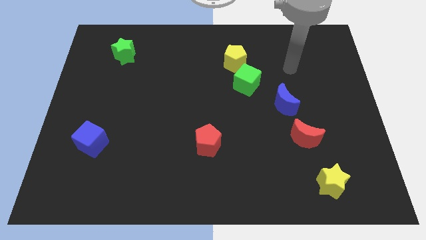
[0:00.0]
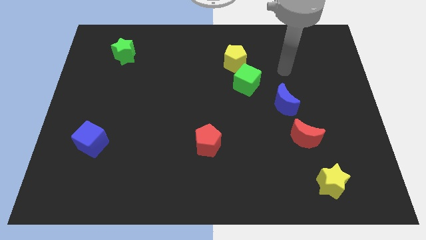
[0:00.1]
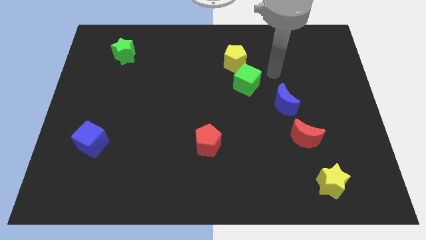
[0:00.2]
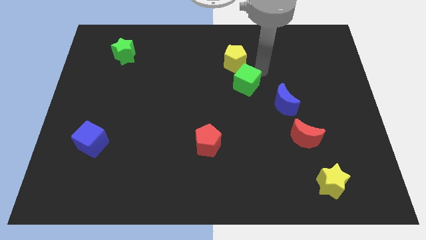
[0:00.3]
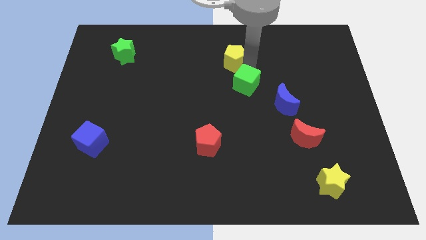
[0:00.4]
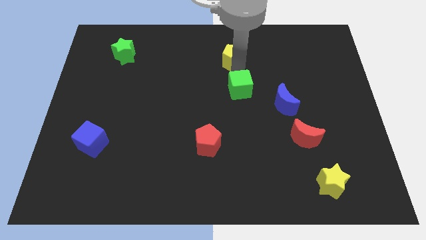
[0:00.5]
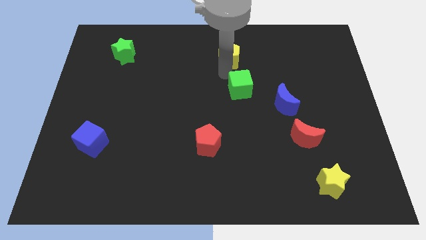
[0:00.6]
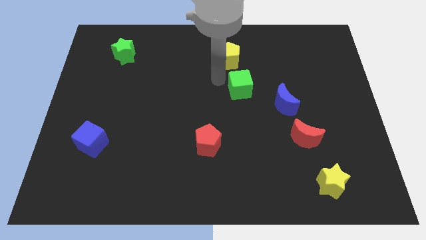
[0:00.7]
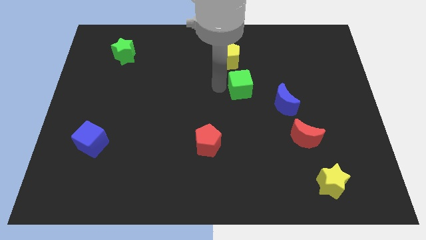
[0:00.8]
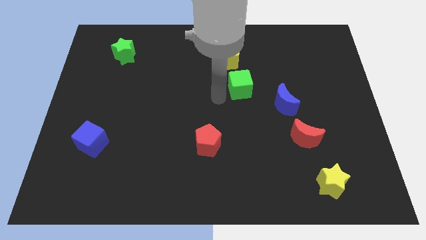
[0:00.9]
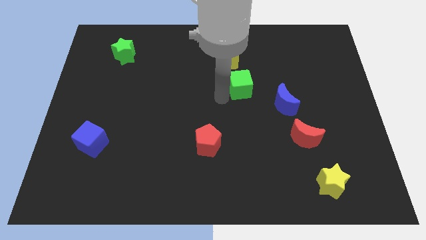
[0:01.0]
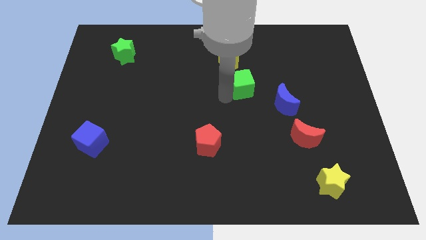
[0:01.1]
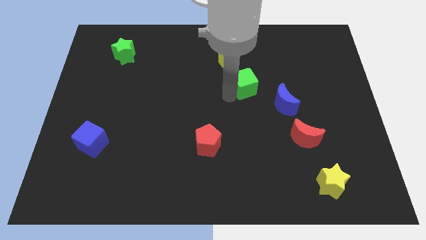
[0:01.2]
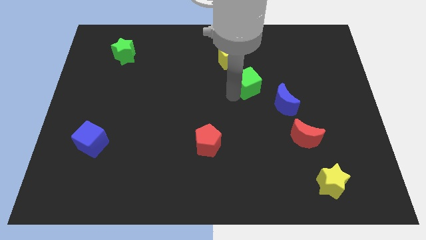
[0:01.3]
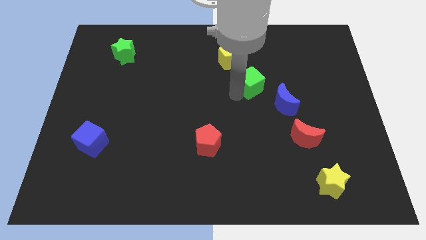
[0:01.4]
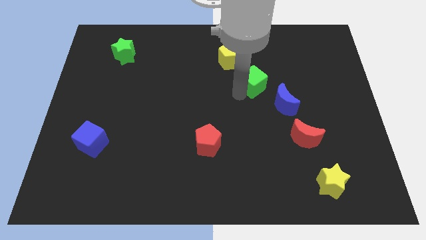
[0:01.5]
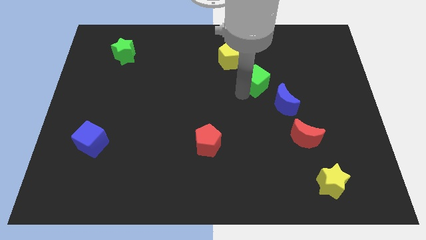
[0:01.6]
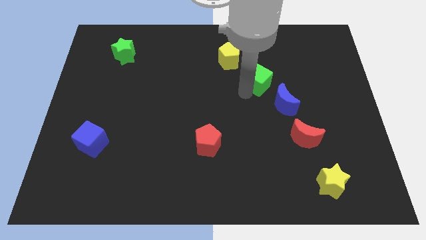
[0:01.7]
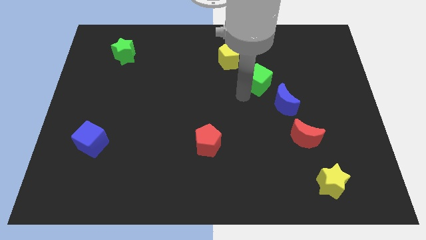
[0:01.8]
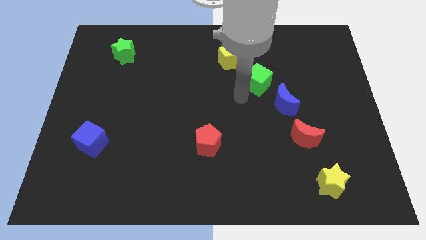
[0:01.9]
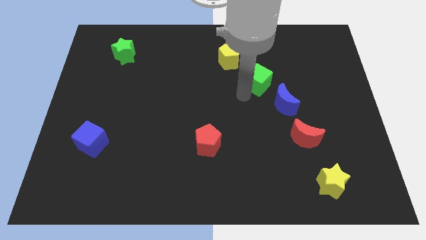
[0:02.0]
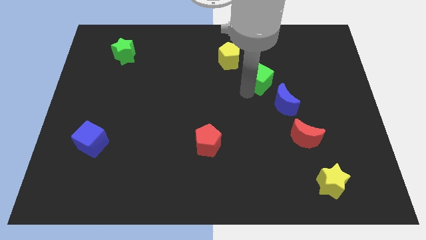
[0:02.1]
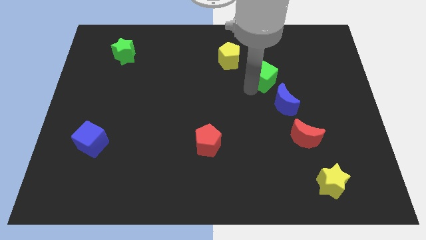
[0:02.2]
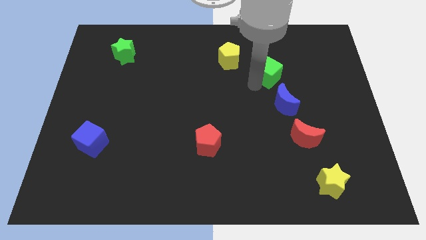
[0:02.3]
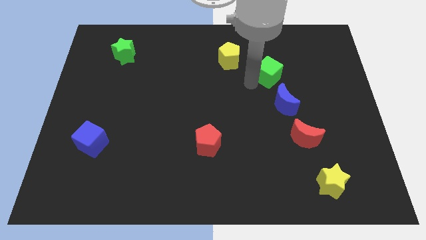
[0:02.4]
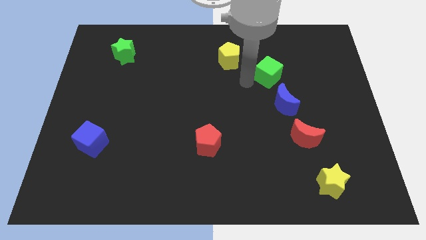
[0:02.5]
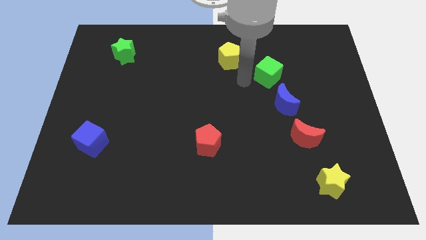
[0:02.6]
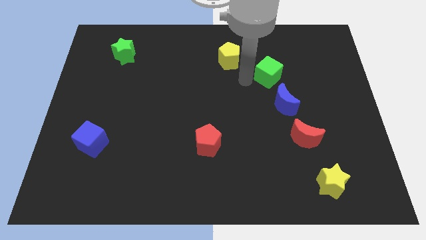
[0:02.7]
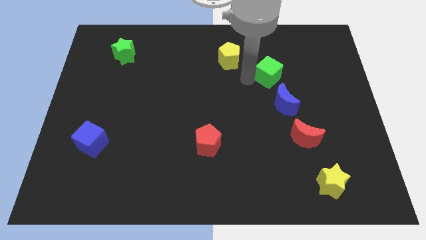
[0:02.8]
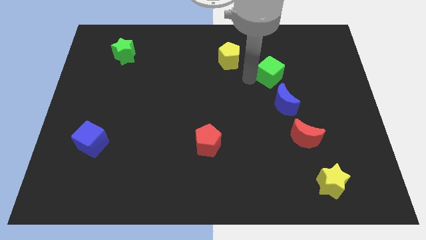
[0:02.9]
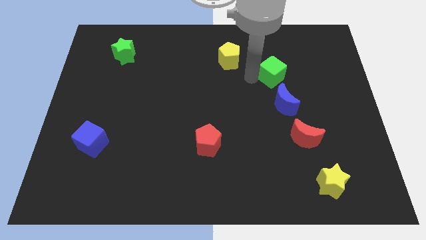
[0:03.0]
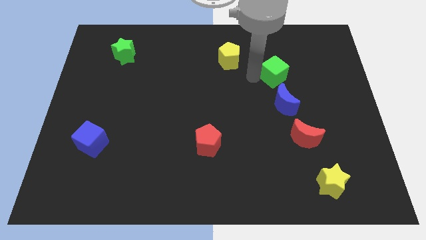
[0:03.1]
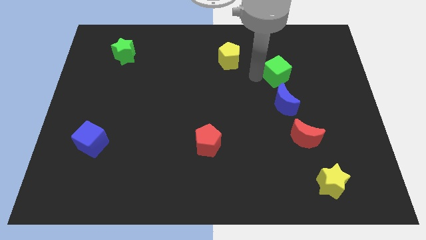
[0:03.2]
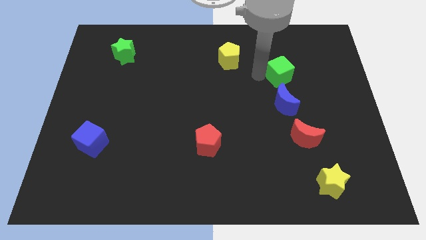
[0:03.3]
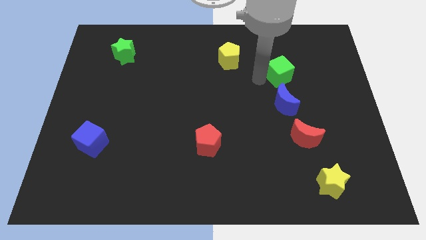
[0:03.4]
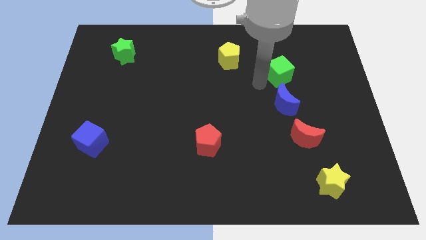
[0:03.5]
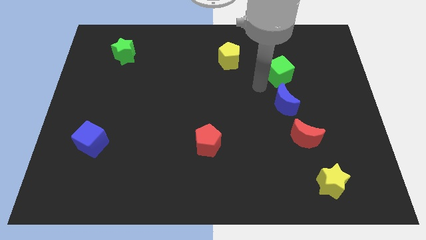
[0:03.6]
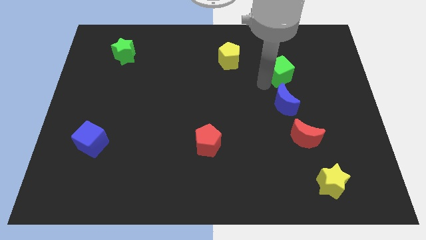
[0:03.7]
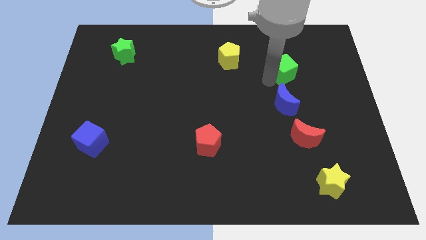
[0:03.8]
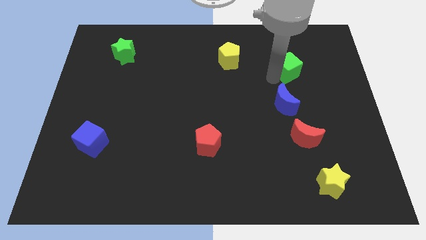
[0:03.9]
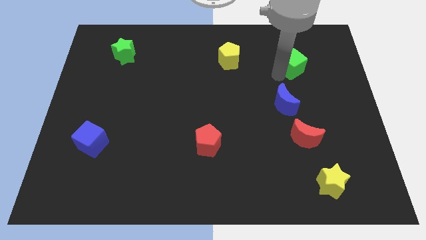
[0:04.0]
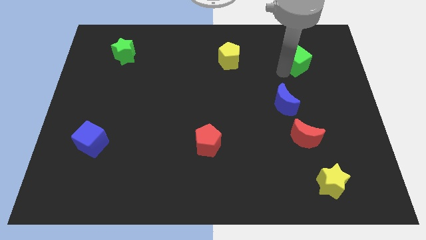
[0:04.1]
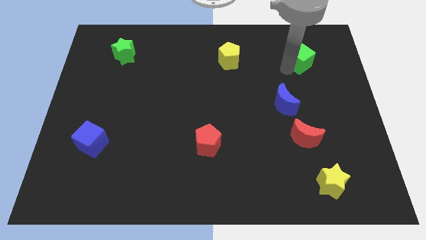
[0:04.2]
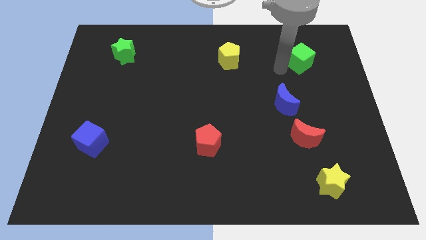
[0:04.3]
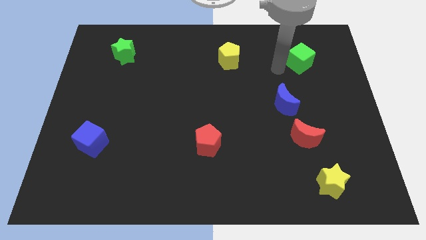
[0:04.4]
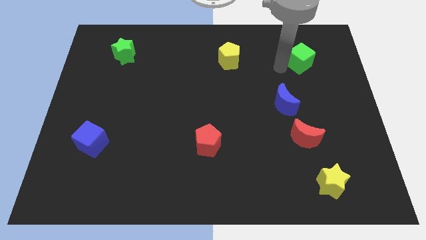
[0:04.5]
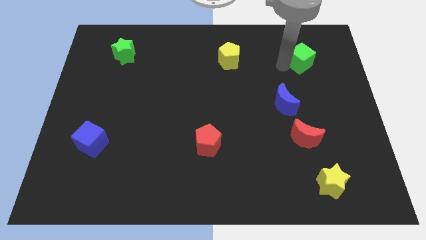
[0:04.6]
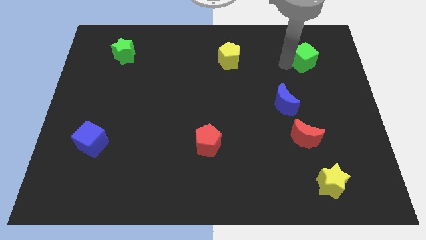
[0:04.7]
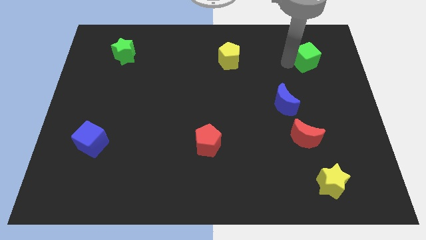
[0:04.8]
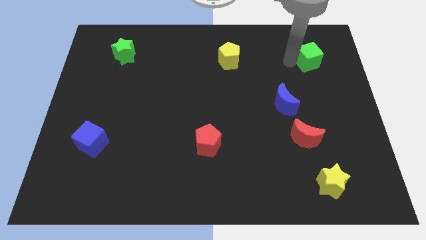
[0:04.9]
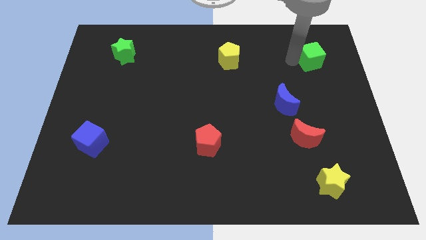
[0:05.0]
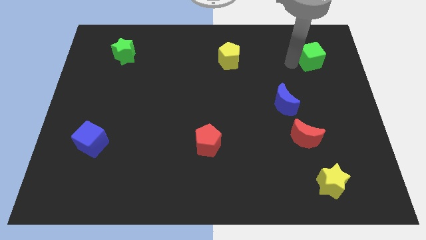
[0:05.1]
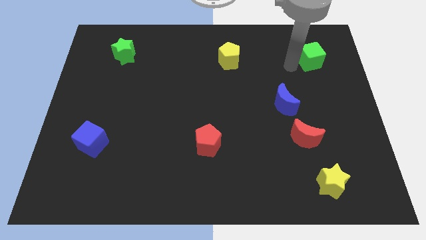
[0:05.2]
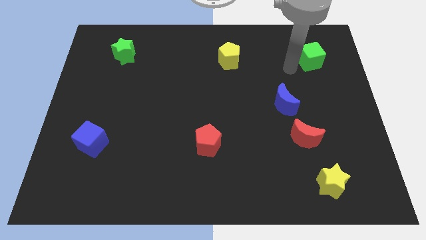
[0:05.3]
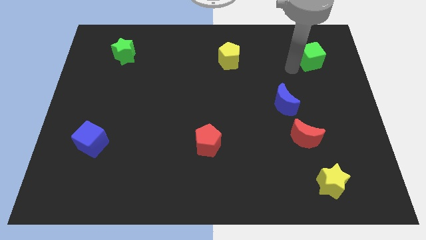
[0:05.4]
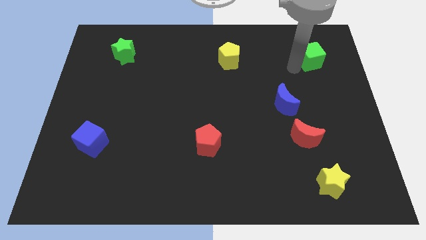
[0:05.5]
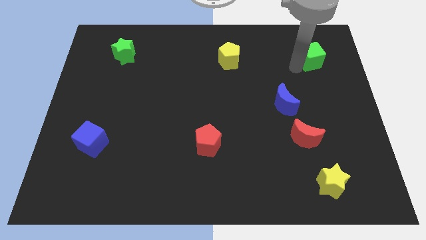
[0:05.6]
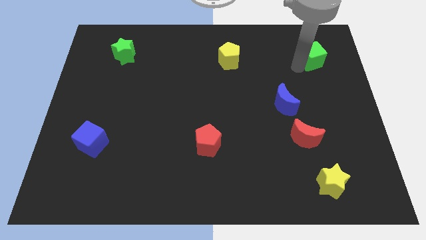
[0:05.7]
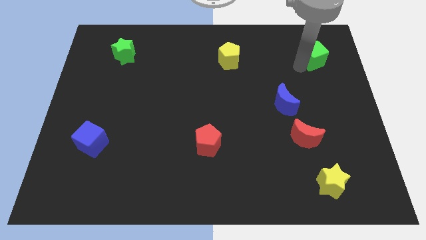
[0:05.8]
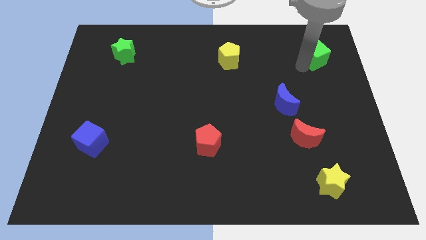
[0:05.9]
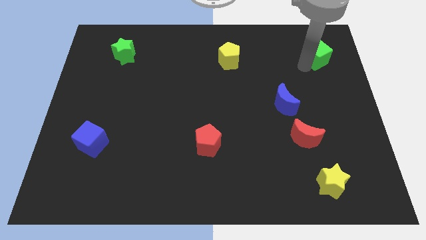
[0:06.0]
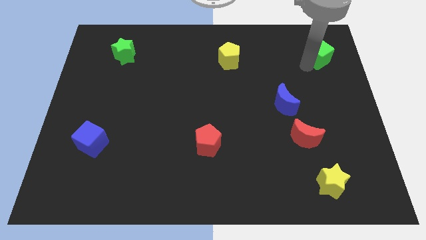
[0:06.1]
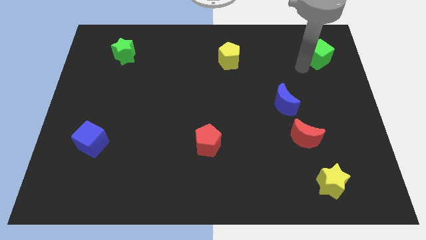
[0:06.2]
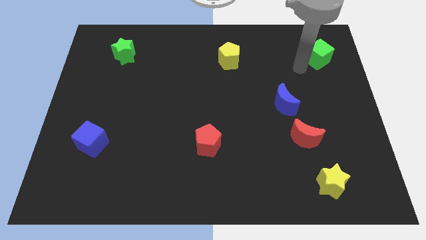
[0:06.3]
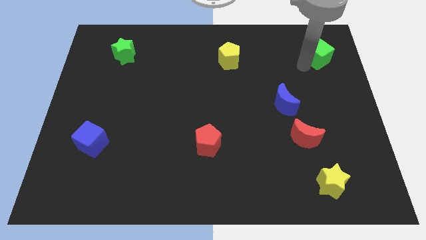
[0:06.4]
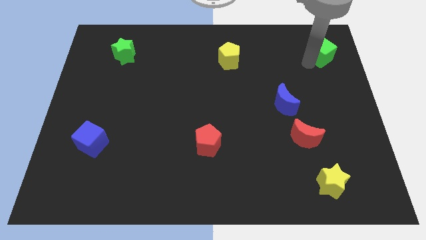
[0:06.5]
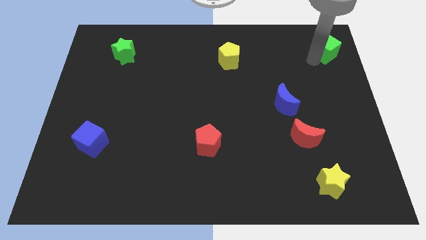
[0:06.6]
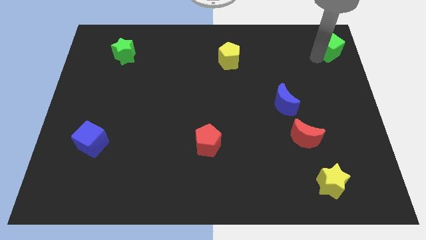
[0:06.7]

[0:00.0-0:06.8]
push the green cube to the upper right corner
